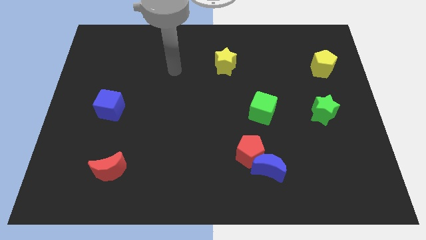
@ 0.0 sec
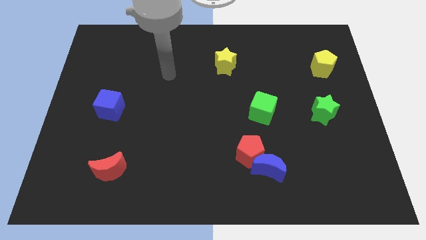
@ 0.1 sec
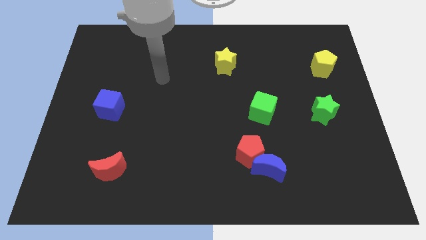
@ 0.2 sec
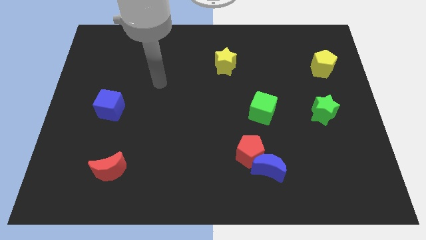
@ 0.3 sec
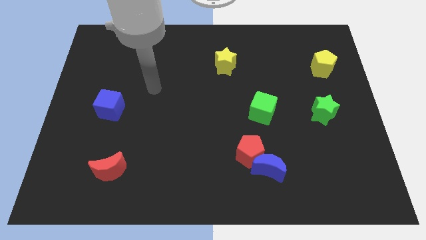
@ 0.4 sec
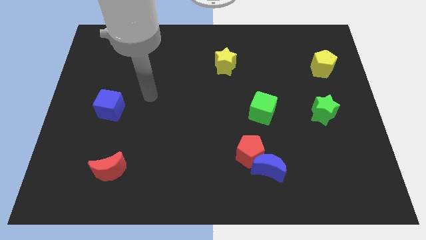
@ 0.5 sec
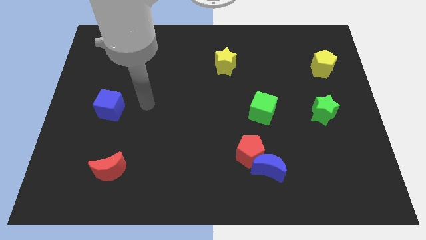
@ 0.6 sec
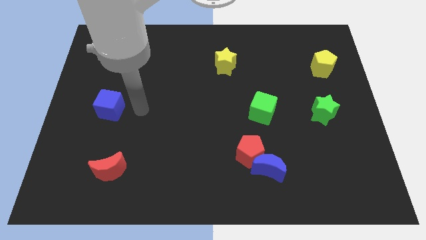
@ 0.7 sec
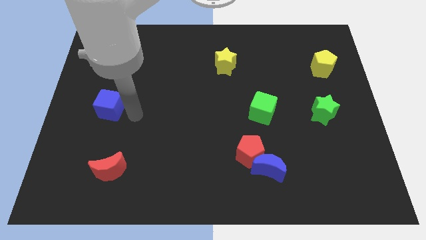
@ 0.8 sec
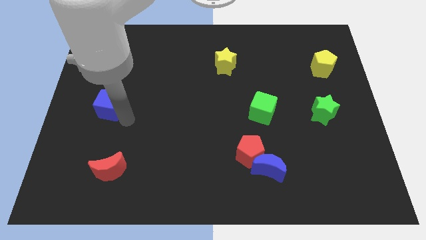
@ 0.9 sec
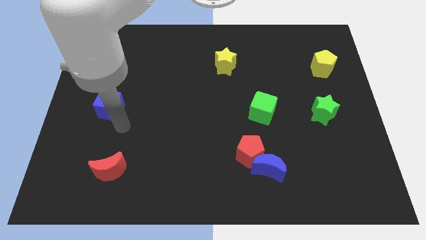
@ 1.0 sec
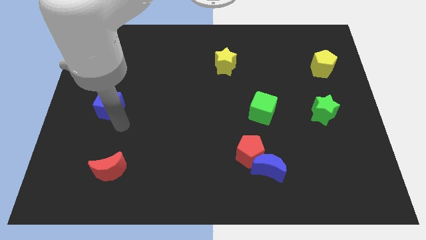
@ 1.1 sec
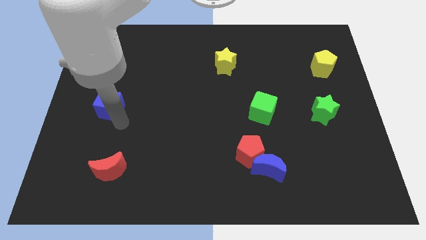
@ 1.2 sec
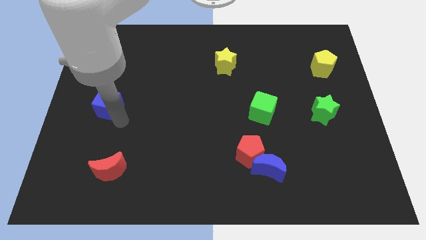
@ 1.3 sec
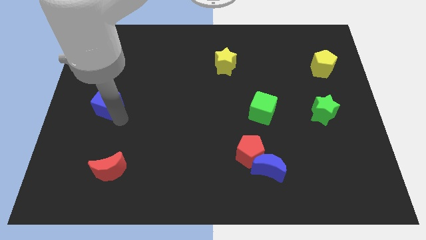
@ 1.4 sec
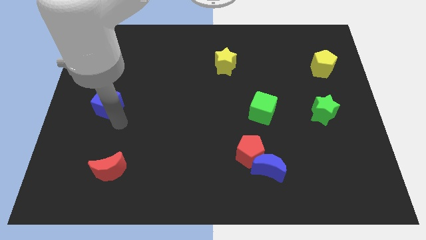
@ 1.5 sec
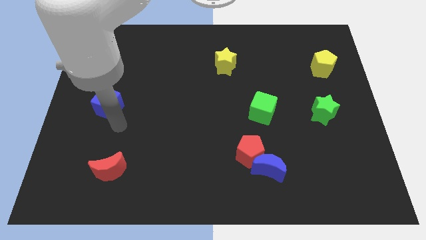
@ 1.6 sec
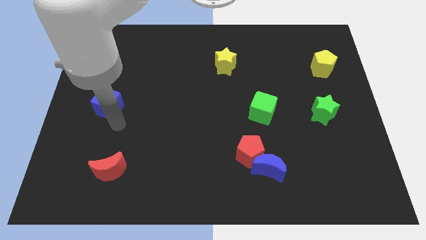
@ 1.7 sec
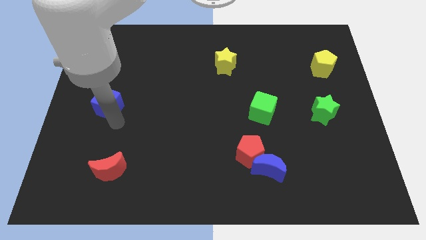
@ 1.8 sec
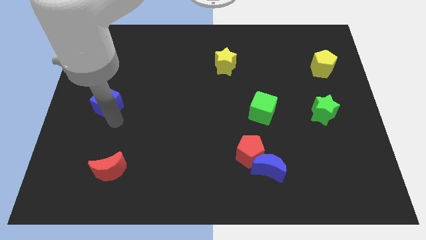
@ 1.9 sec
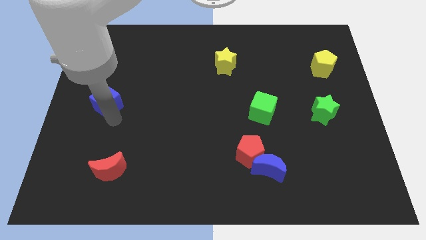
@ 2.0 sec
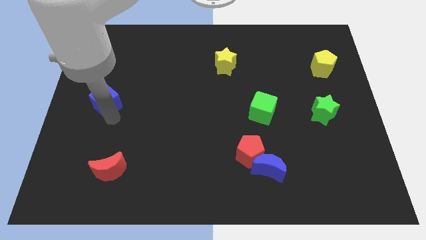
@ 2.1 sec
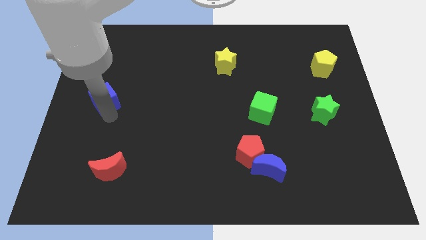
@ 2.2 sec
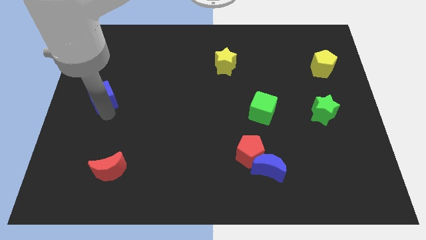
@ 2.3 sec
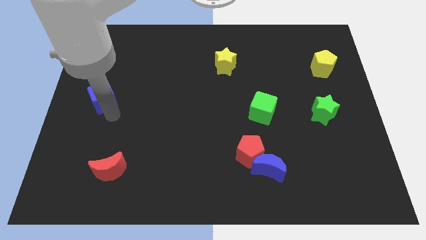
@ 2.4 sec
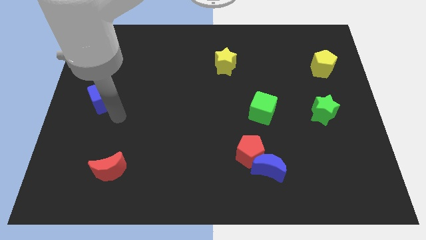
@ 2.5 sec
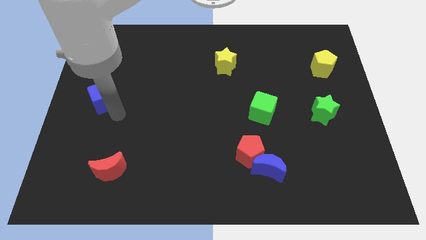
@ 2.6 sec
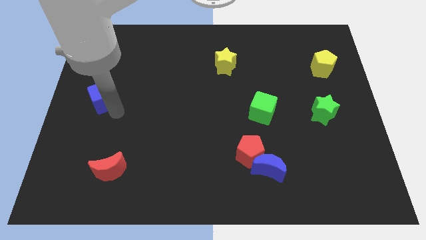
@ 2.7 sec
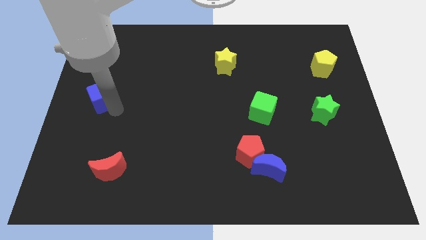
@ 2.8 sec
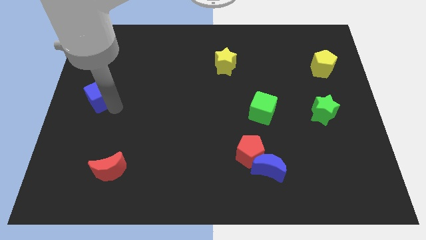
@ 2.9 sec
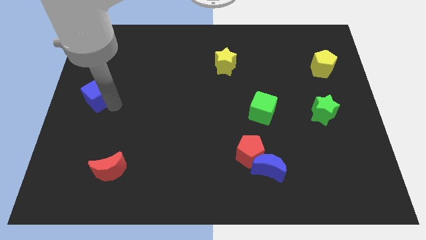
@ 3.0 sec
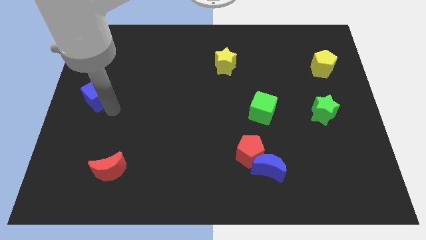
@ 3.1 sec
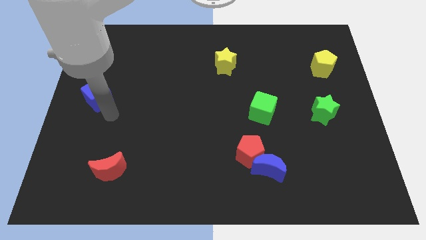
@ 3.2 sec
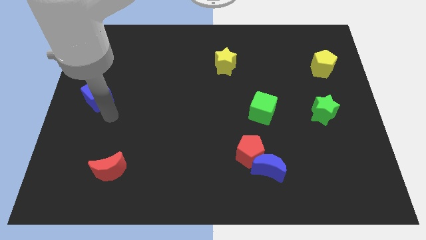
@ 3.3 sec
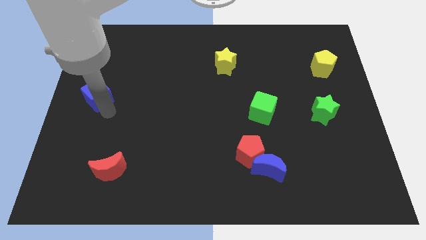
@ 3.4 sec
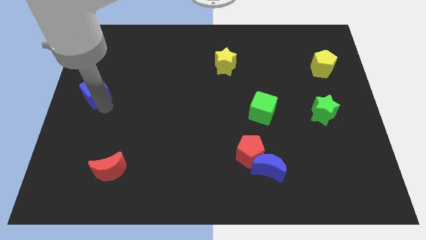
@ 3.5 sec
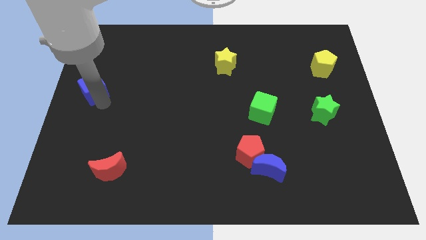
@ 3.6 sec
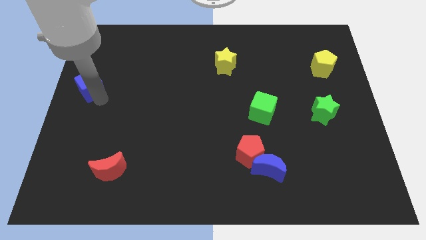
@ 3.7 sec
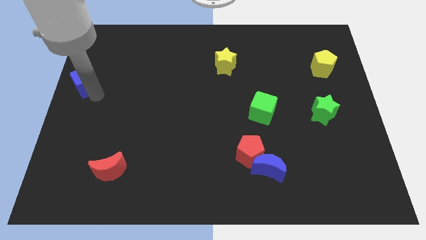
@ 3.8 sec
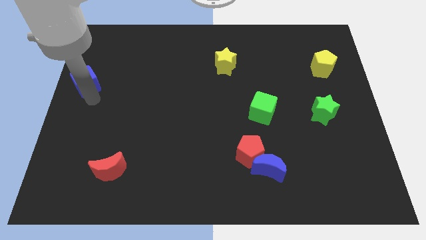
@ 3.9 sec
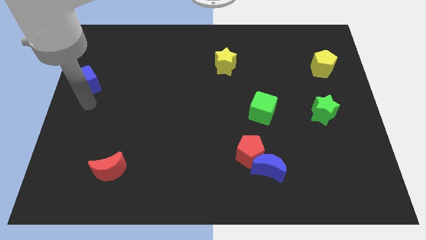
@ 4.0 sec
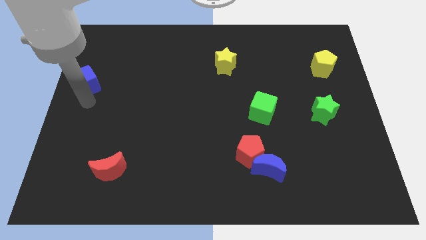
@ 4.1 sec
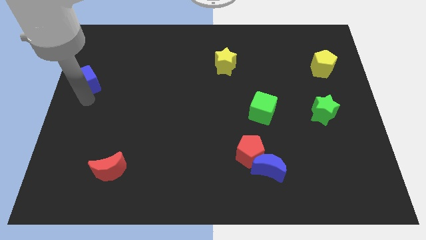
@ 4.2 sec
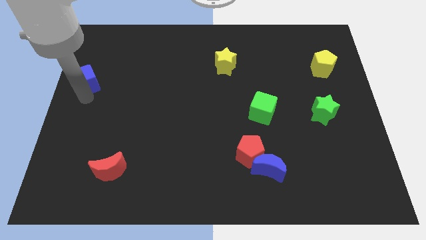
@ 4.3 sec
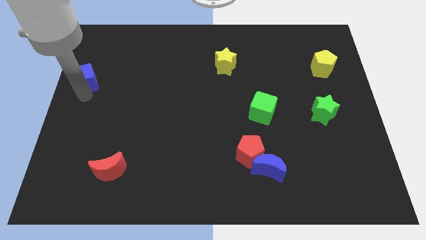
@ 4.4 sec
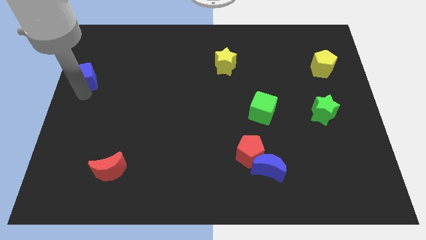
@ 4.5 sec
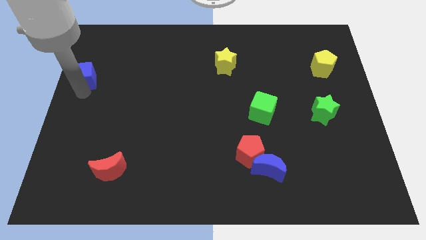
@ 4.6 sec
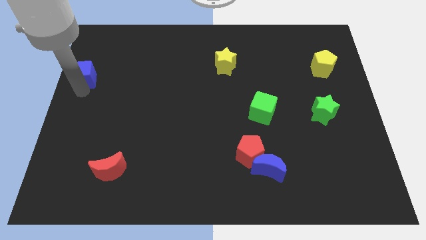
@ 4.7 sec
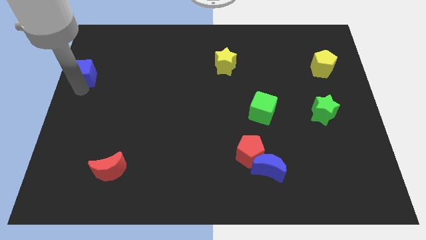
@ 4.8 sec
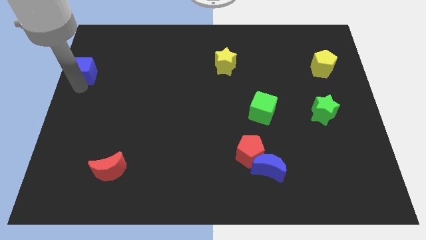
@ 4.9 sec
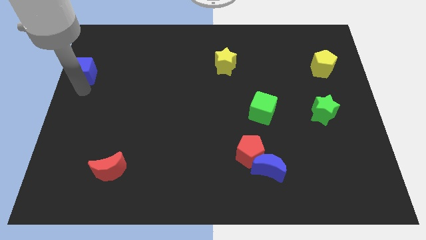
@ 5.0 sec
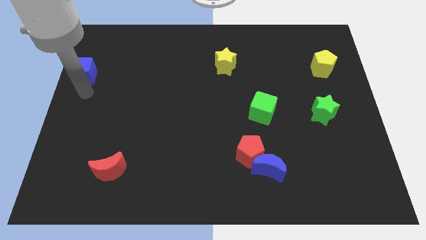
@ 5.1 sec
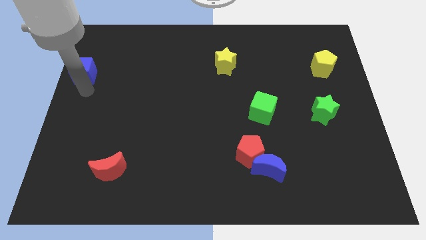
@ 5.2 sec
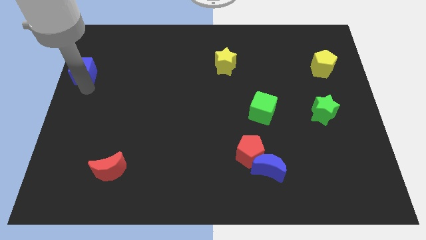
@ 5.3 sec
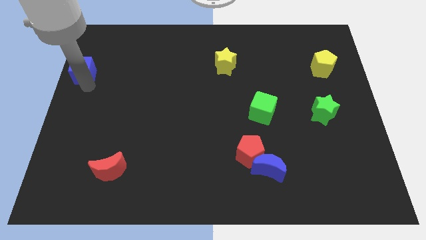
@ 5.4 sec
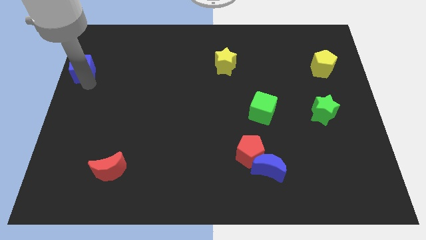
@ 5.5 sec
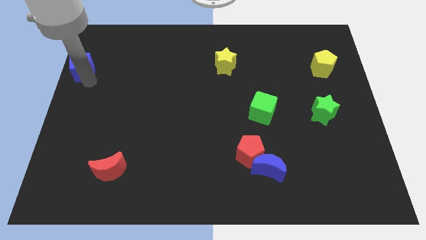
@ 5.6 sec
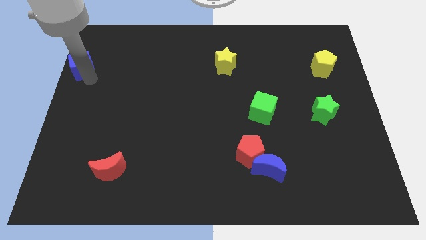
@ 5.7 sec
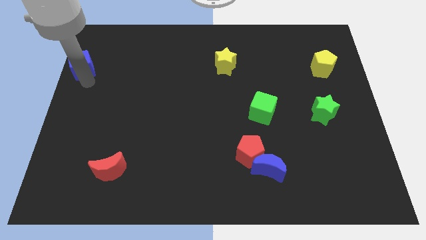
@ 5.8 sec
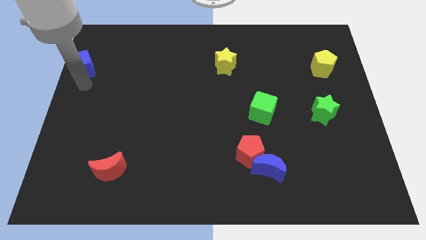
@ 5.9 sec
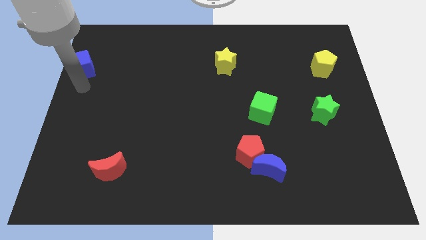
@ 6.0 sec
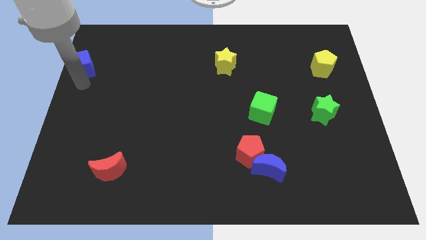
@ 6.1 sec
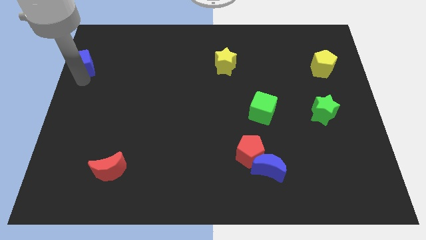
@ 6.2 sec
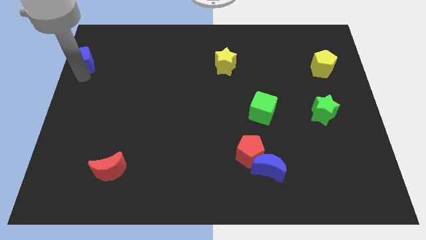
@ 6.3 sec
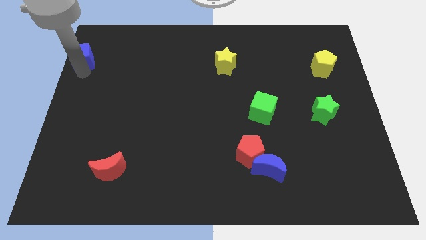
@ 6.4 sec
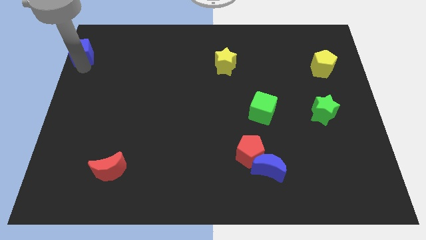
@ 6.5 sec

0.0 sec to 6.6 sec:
push the blue cube to the upper left corner
